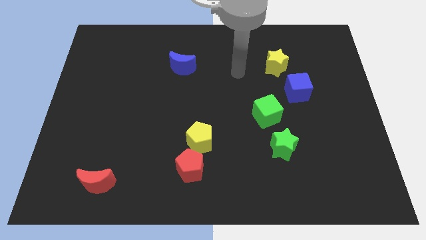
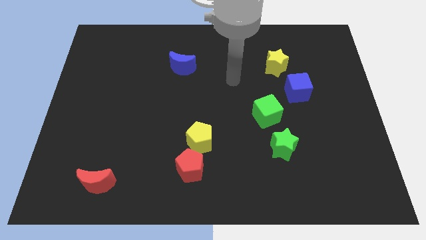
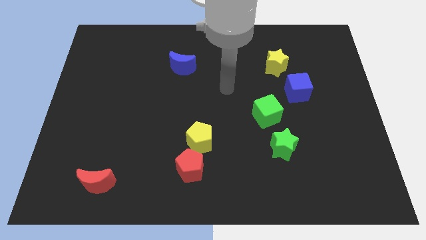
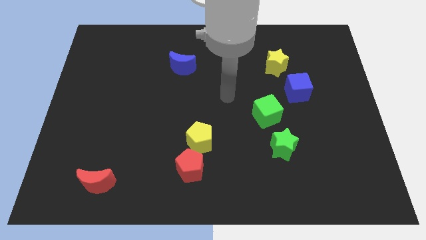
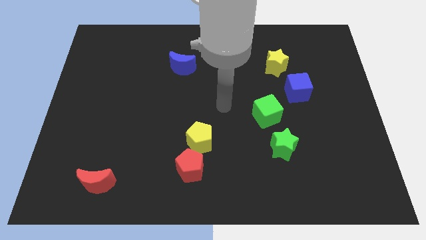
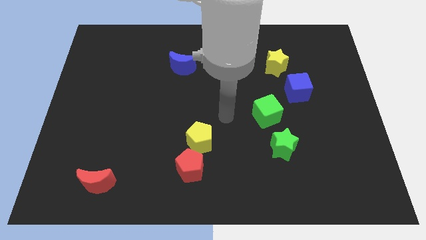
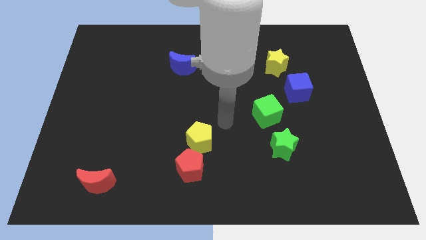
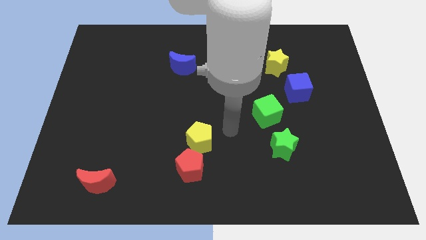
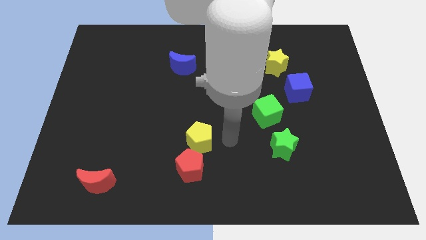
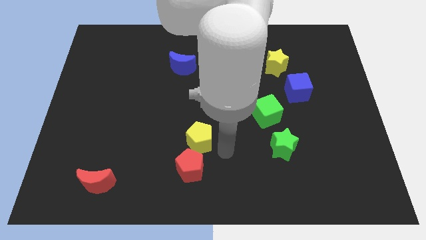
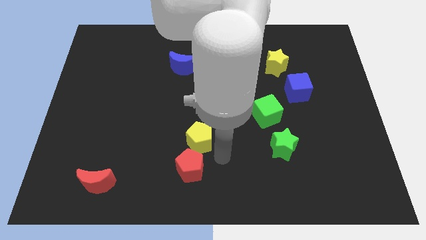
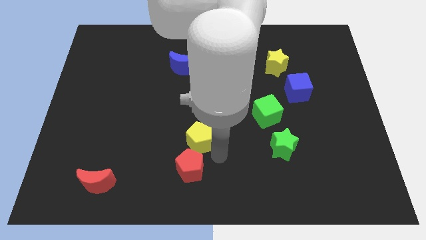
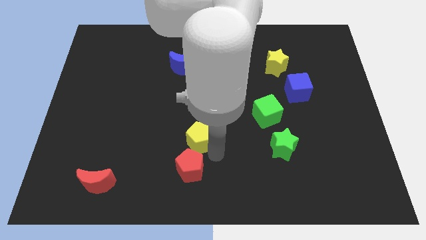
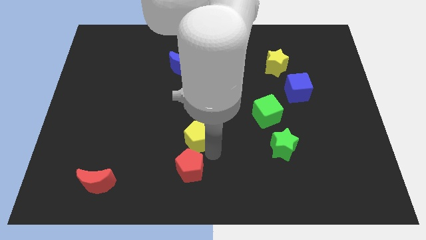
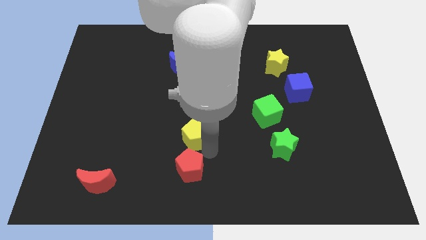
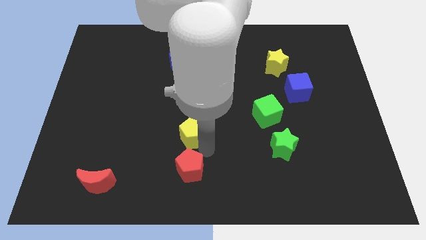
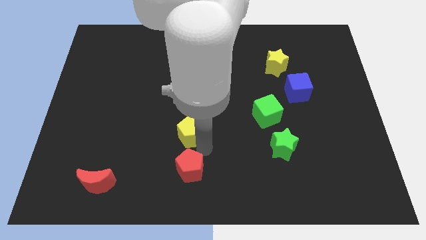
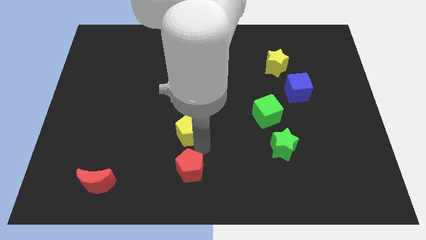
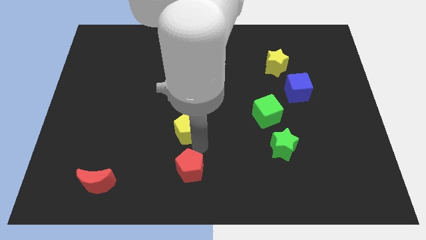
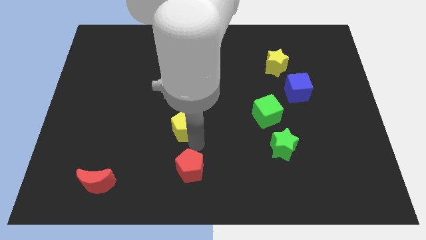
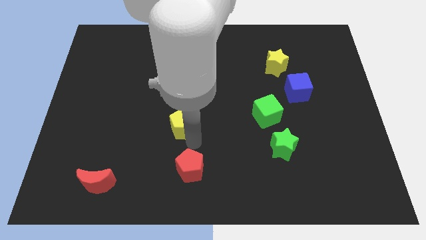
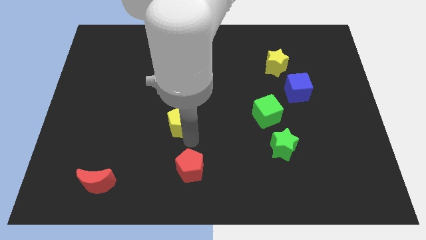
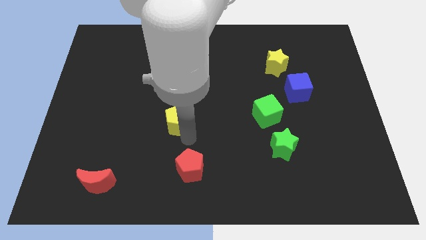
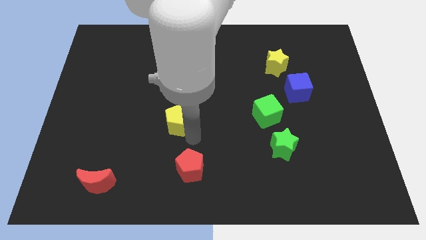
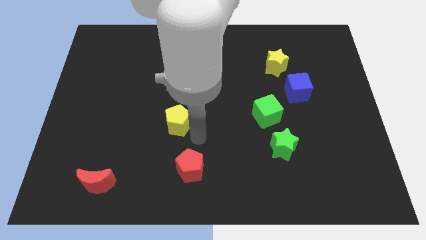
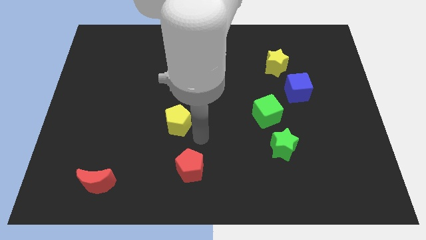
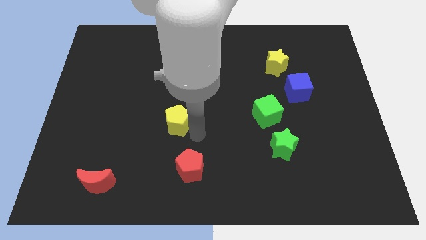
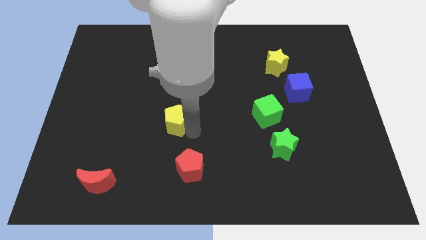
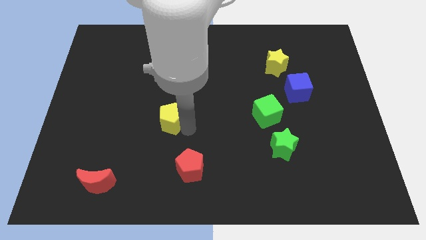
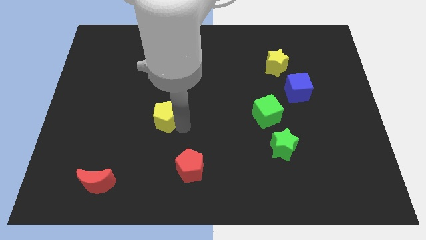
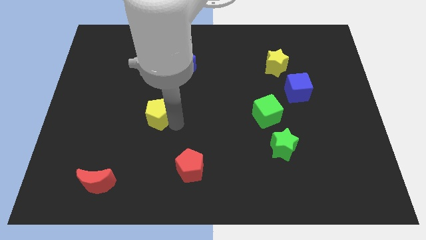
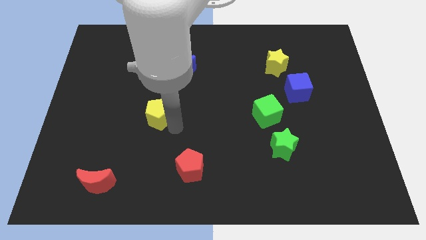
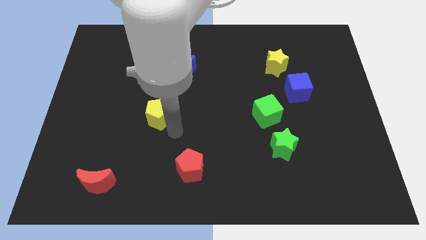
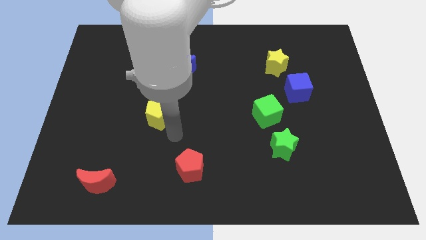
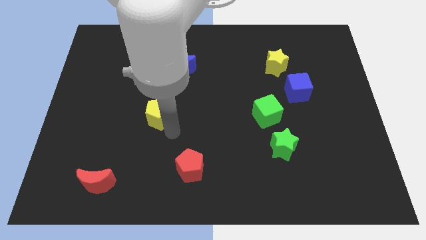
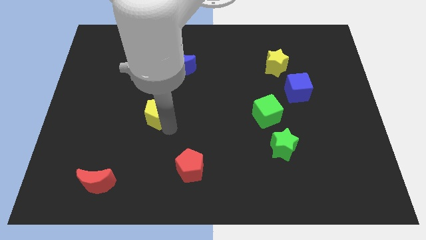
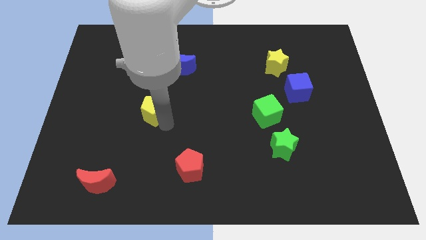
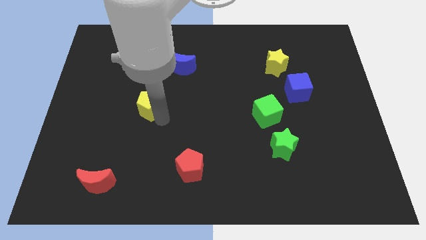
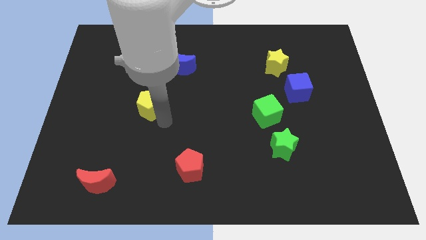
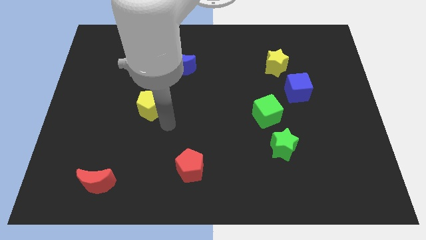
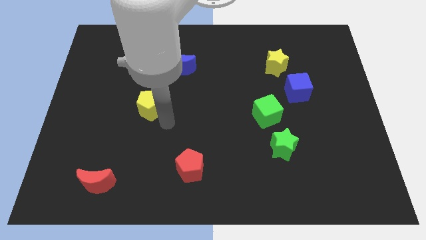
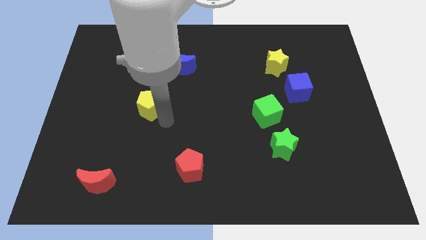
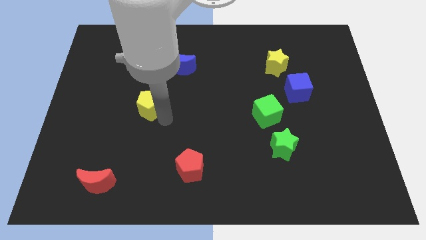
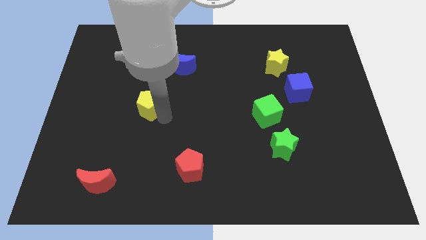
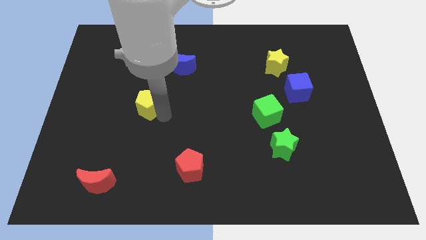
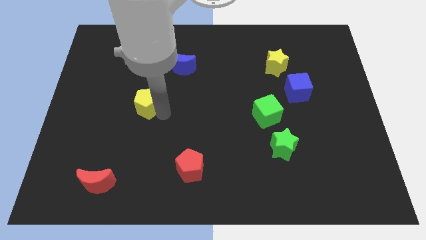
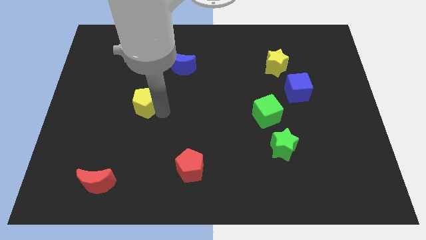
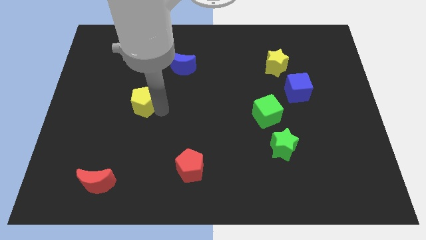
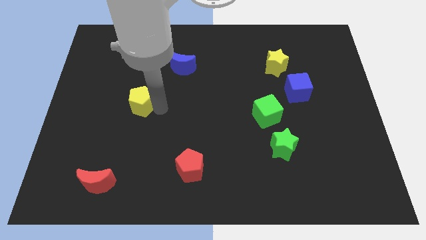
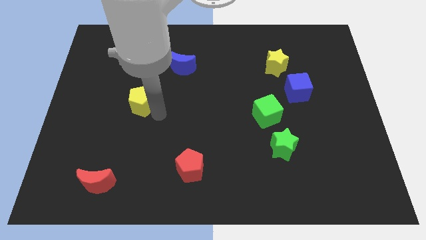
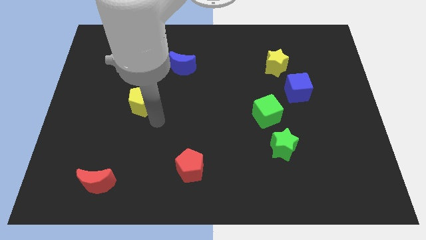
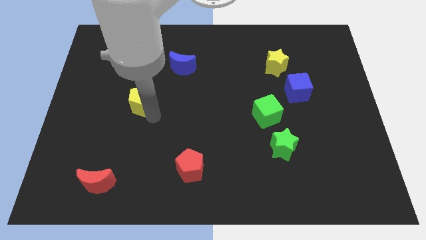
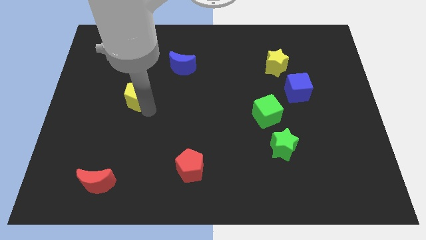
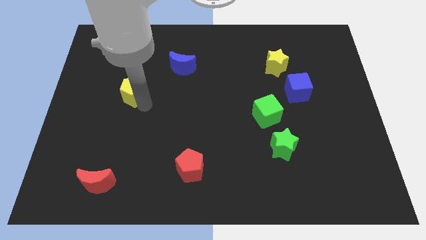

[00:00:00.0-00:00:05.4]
move the yellow pentagon upwards and left

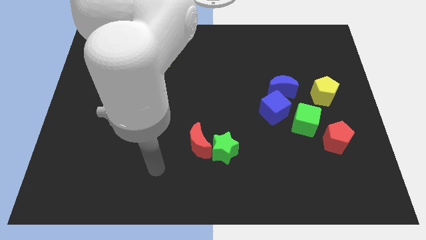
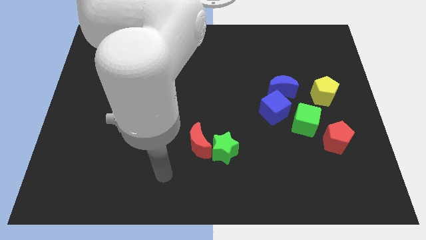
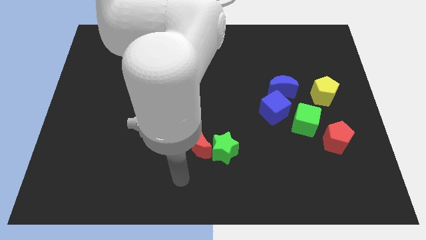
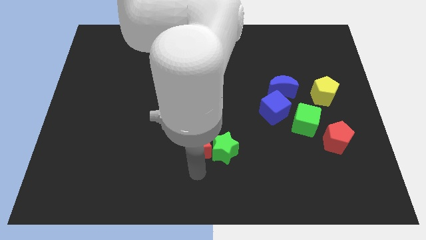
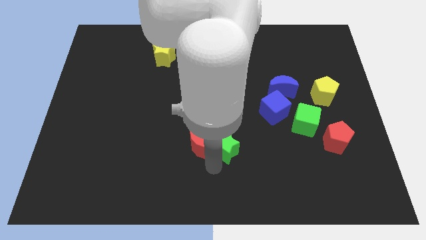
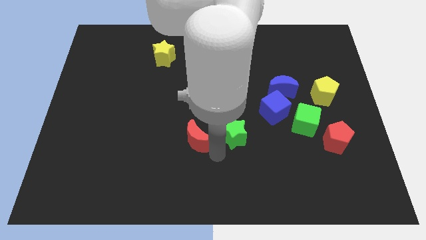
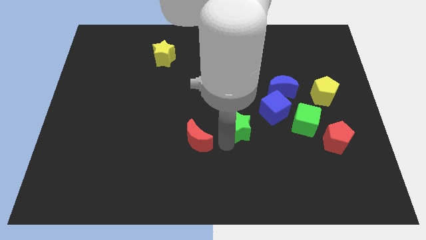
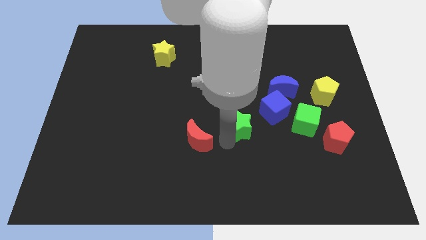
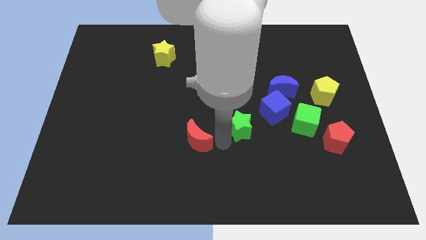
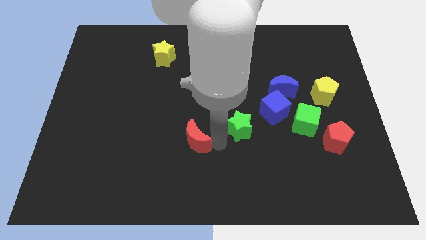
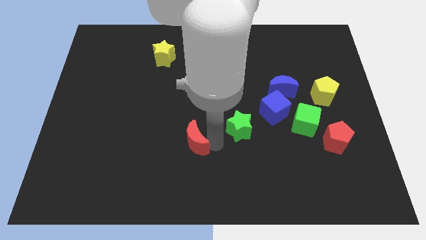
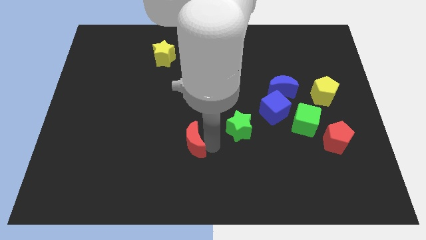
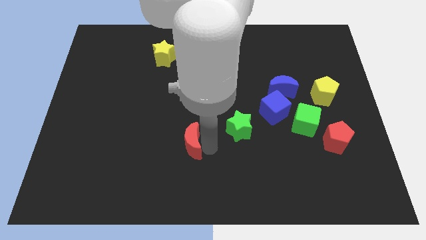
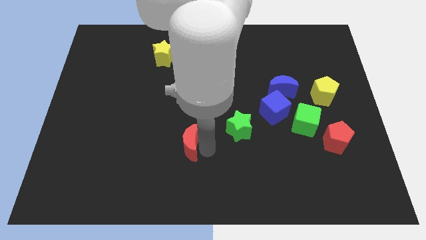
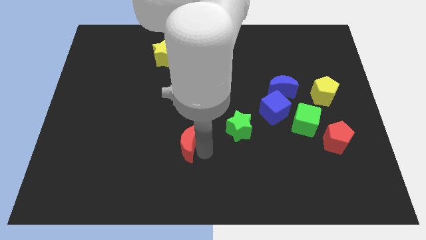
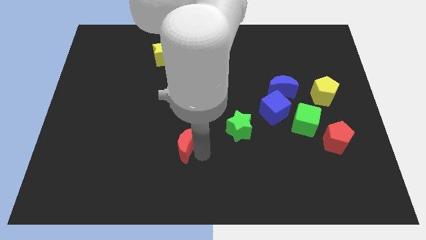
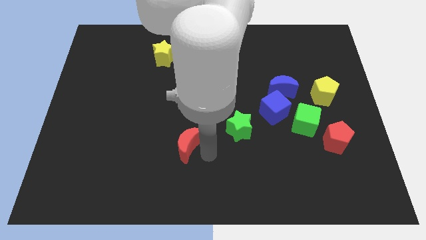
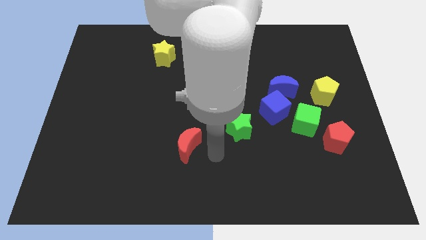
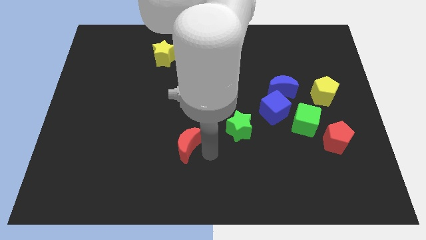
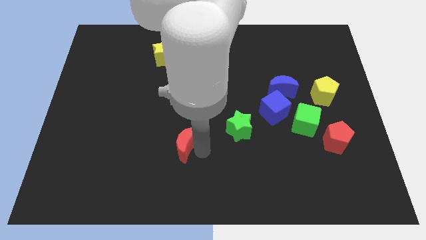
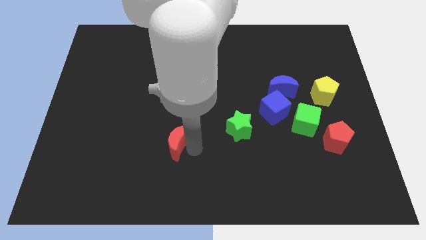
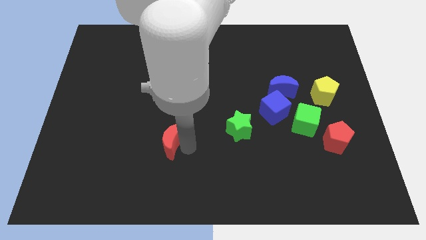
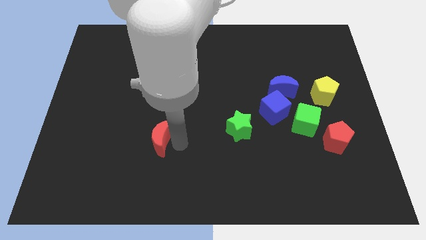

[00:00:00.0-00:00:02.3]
slightly push the red moon to the left

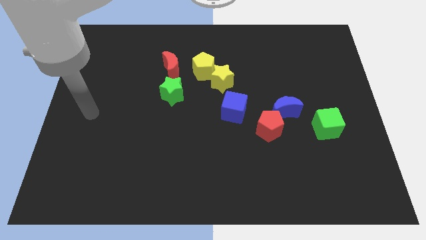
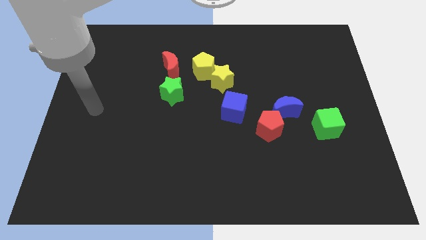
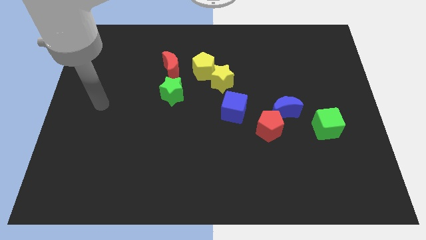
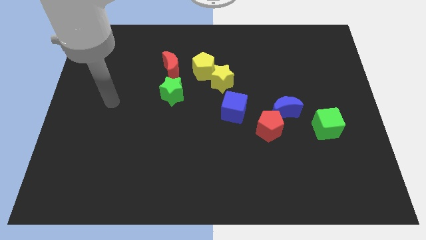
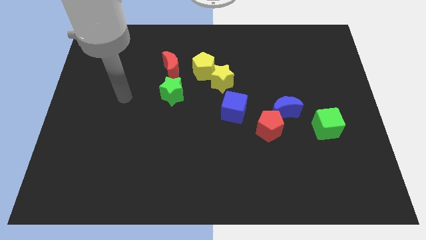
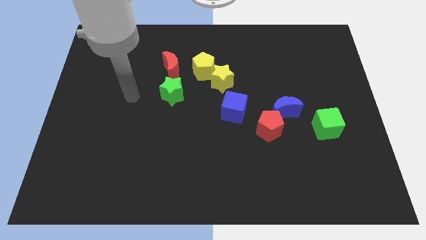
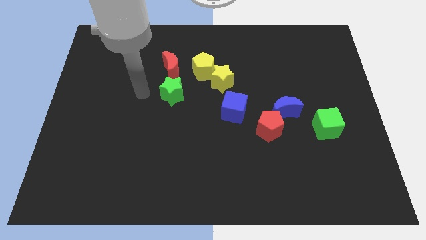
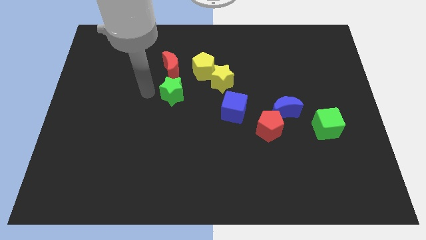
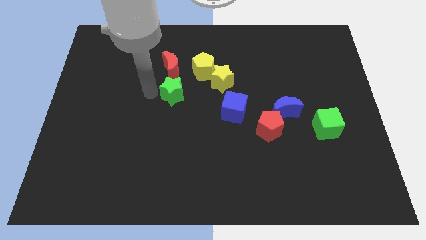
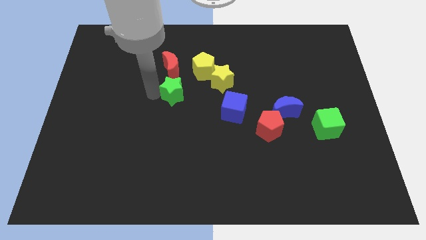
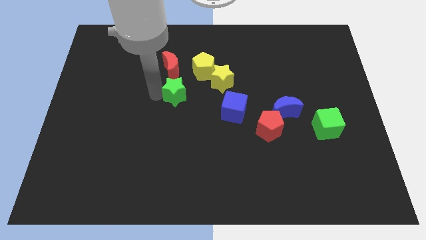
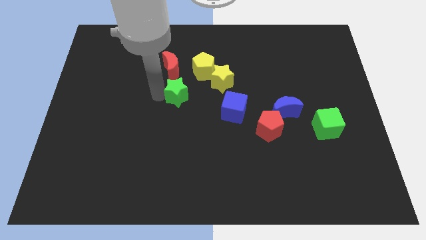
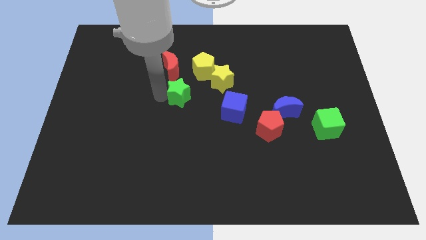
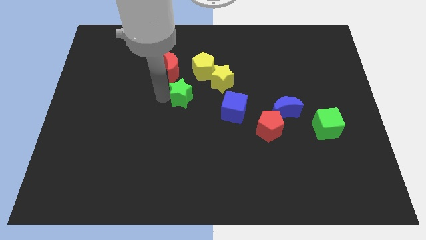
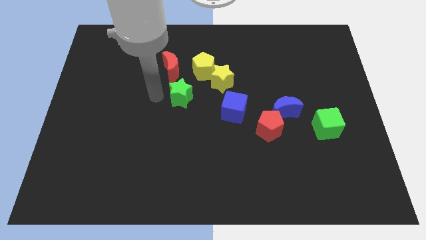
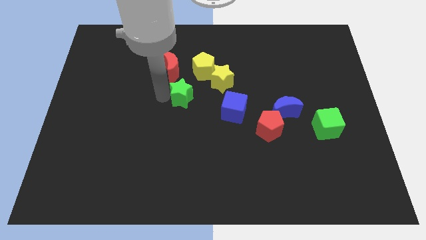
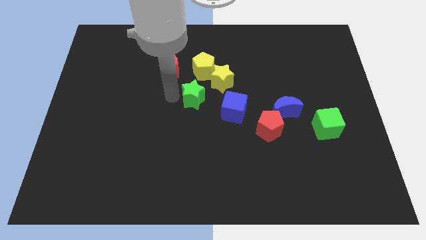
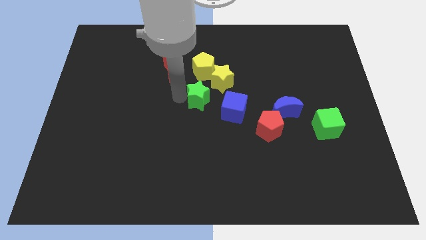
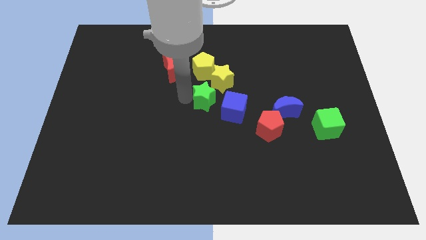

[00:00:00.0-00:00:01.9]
slide the green star to the right somewhat
